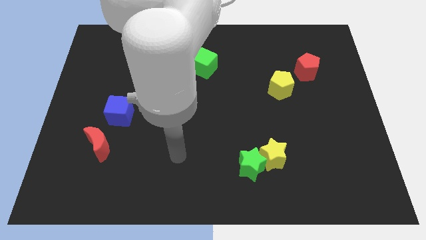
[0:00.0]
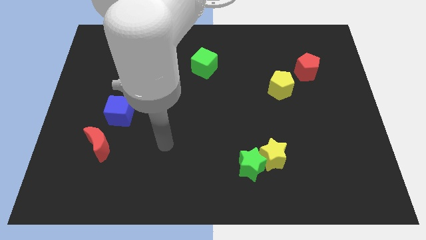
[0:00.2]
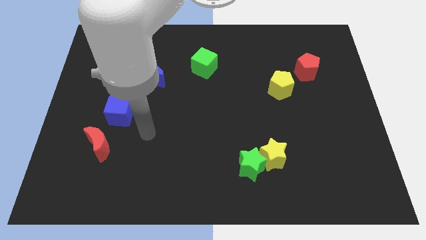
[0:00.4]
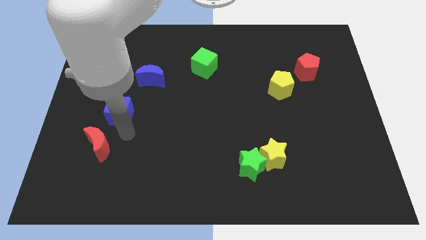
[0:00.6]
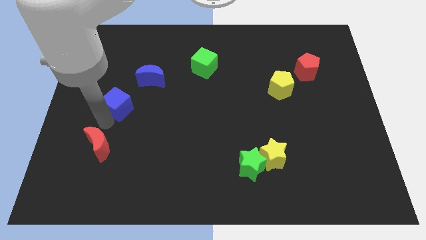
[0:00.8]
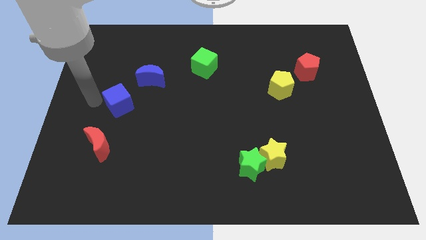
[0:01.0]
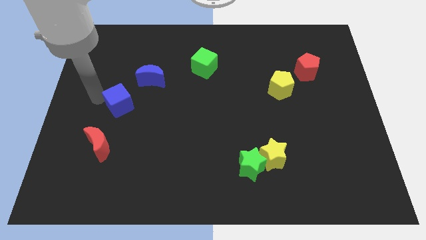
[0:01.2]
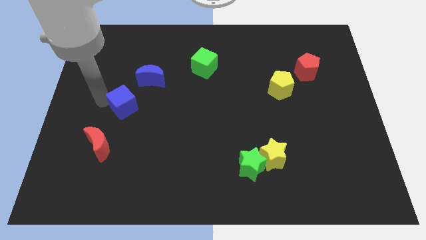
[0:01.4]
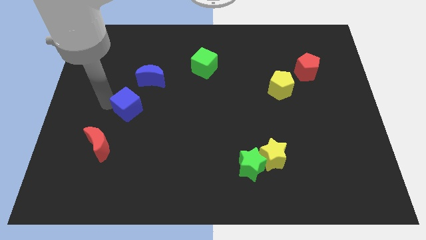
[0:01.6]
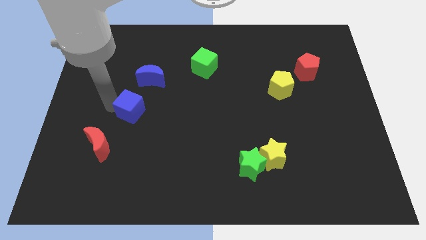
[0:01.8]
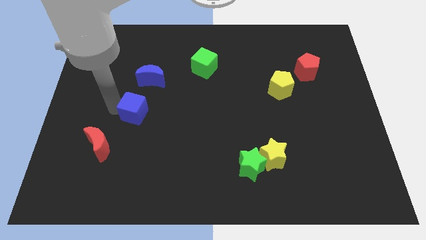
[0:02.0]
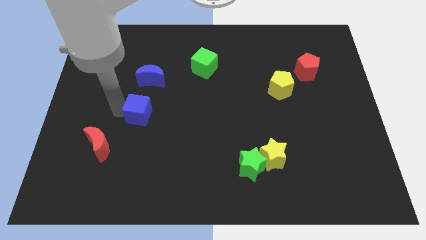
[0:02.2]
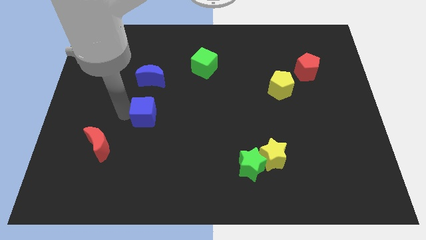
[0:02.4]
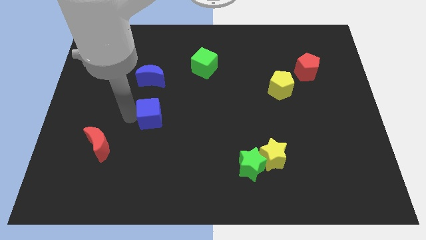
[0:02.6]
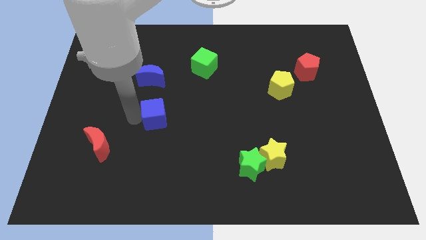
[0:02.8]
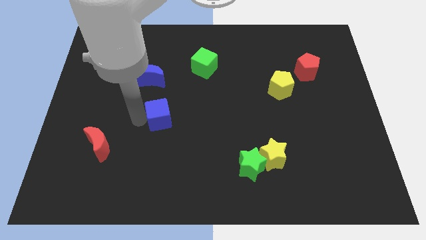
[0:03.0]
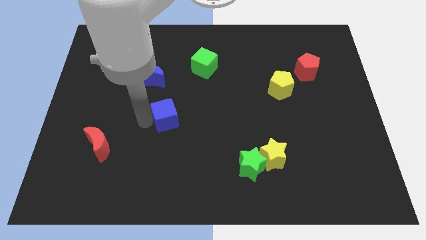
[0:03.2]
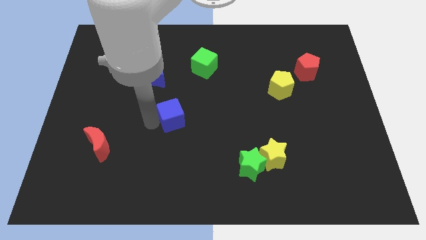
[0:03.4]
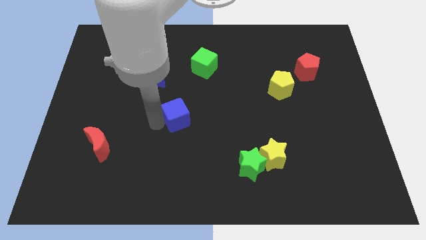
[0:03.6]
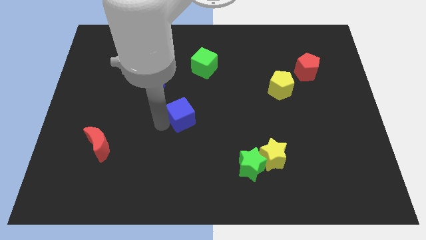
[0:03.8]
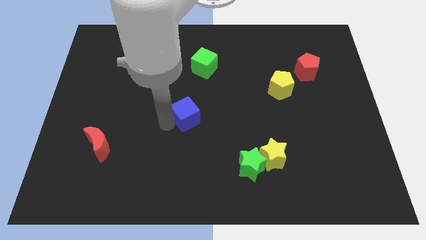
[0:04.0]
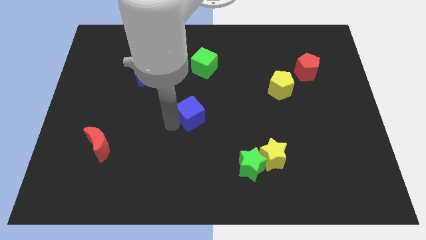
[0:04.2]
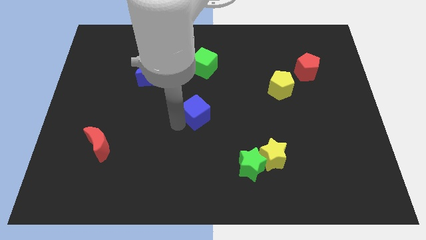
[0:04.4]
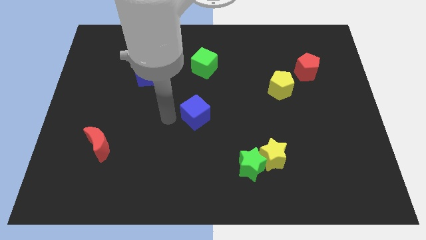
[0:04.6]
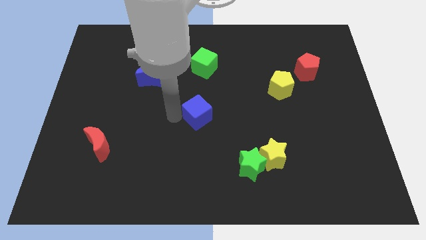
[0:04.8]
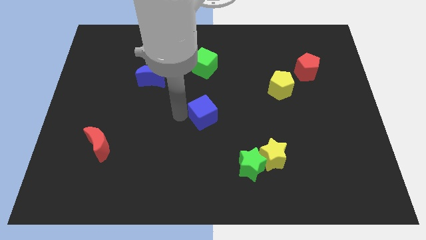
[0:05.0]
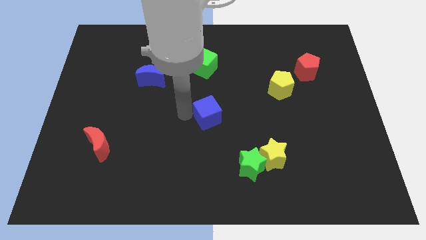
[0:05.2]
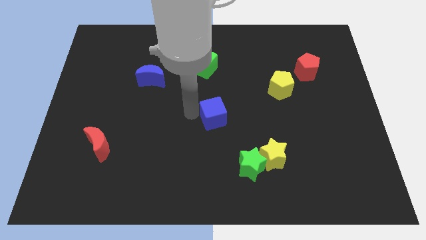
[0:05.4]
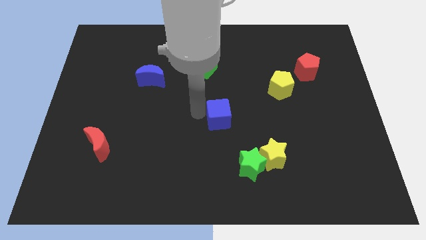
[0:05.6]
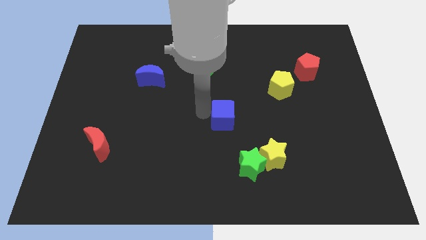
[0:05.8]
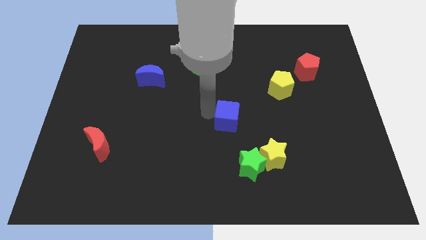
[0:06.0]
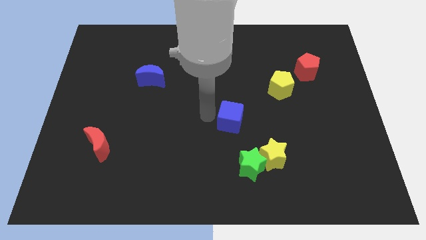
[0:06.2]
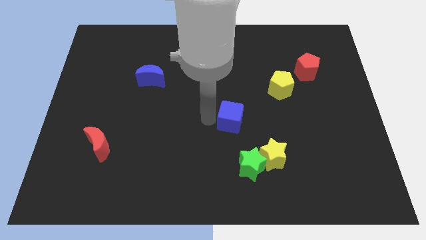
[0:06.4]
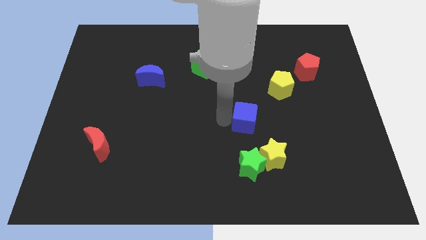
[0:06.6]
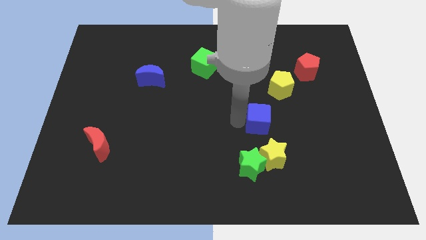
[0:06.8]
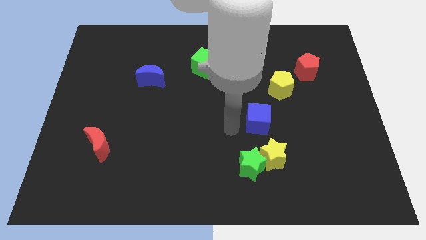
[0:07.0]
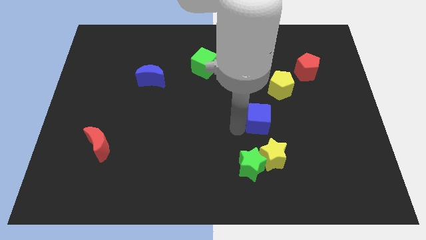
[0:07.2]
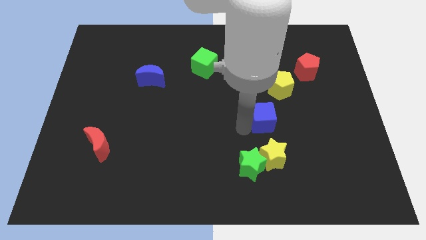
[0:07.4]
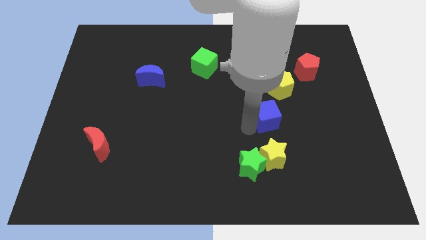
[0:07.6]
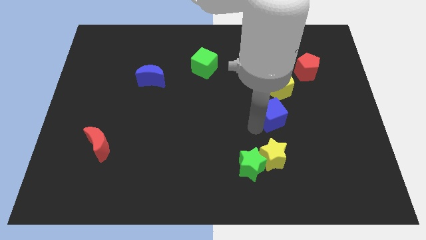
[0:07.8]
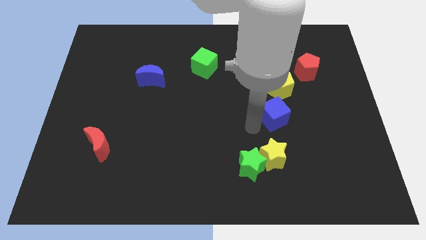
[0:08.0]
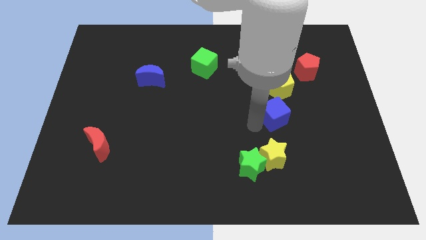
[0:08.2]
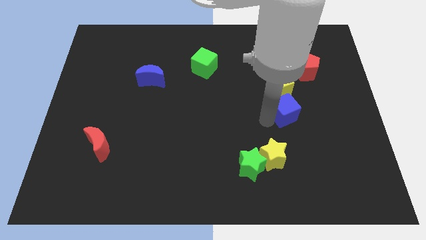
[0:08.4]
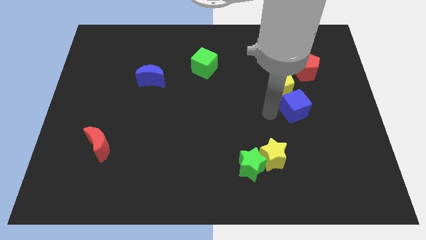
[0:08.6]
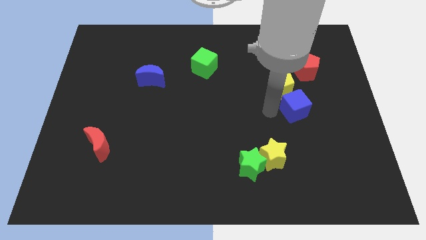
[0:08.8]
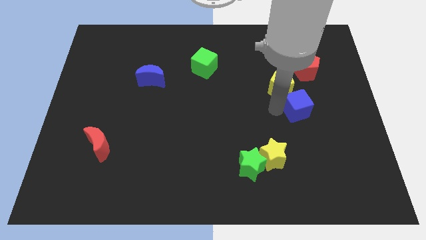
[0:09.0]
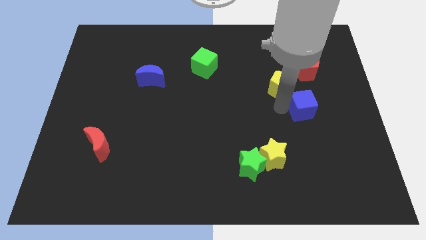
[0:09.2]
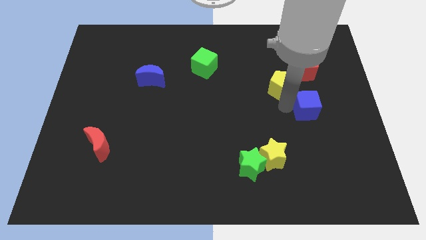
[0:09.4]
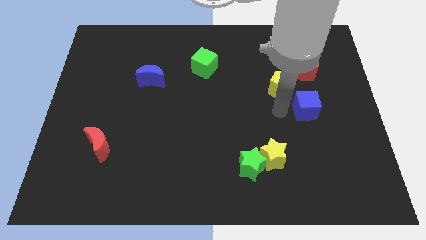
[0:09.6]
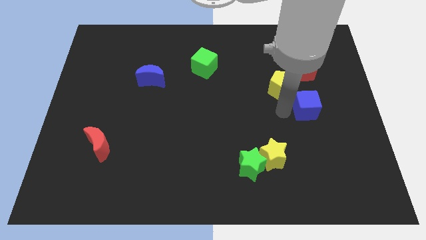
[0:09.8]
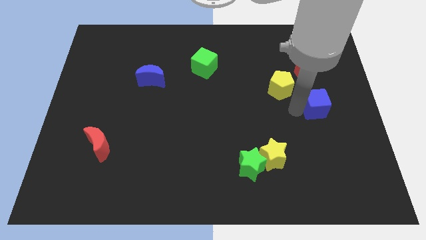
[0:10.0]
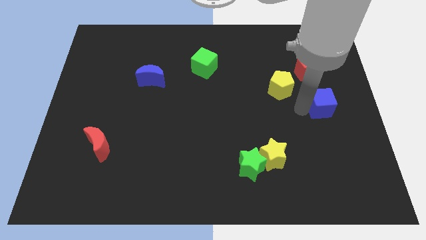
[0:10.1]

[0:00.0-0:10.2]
push the blue cube to the center right

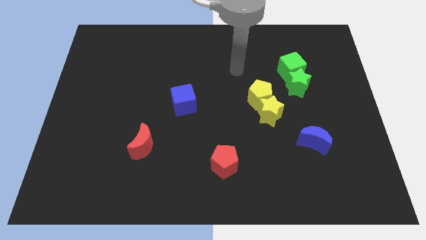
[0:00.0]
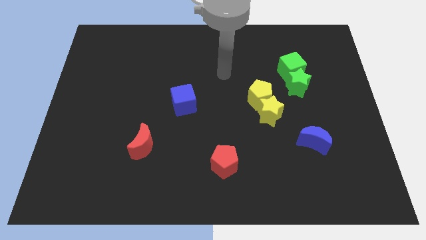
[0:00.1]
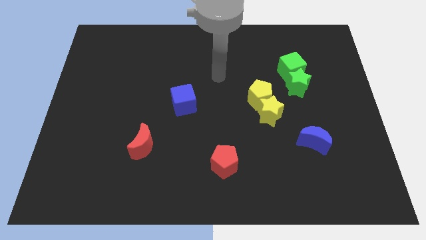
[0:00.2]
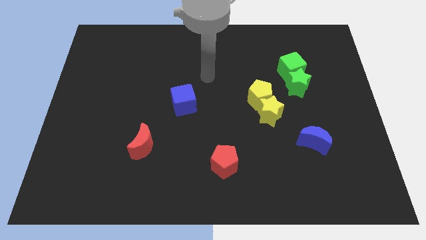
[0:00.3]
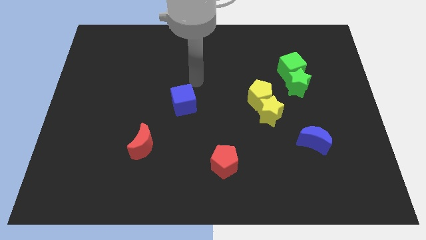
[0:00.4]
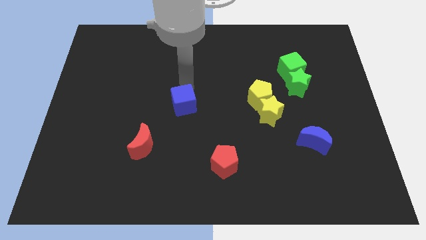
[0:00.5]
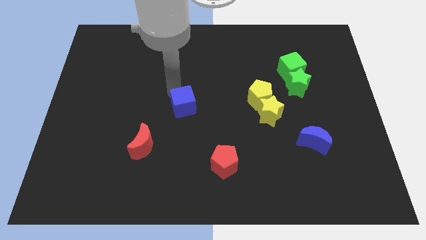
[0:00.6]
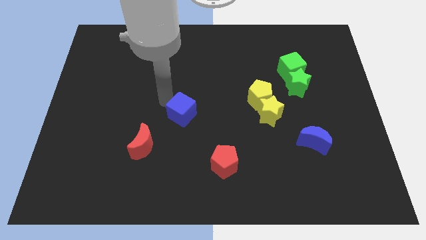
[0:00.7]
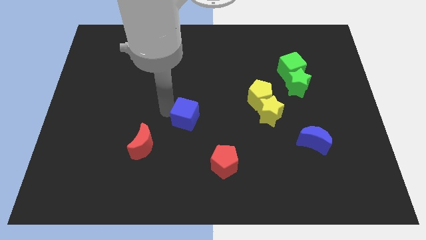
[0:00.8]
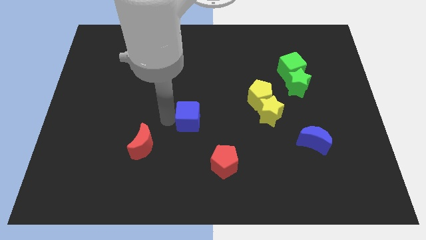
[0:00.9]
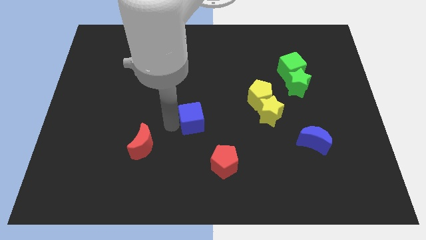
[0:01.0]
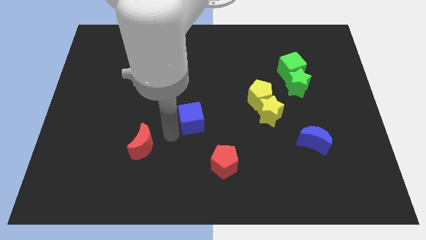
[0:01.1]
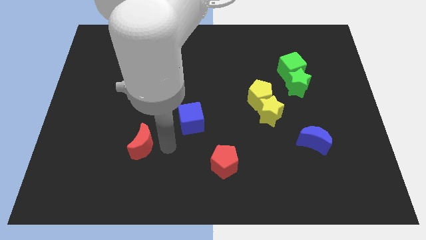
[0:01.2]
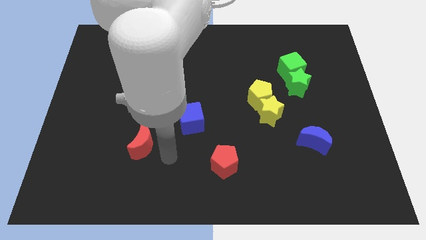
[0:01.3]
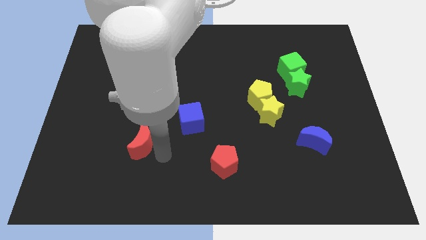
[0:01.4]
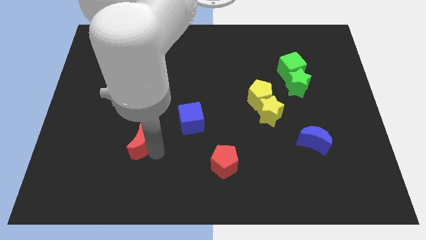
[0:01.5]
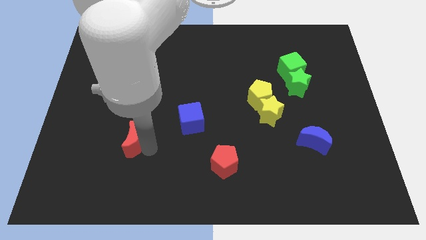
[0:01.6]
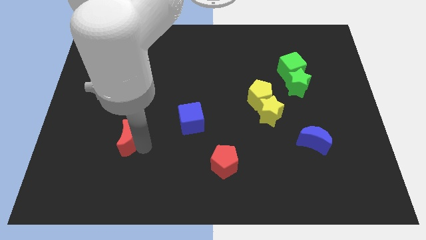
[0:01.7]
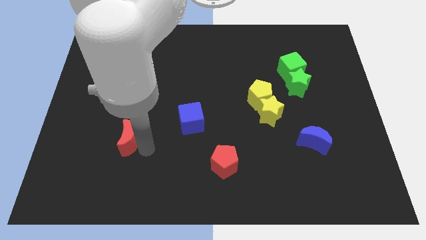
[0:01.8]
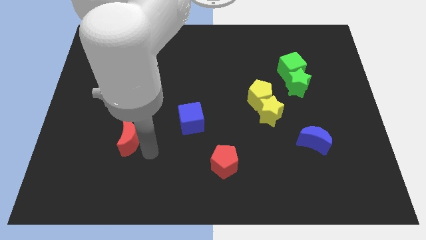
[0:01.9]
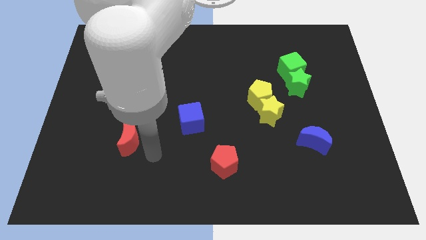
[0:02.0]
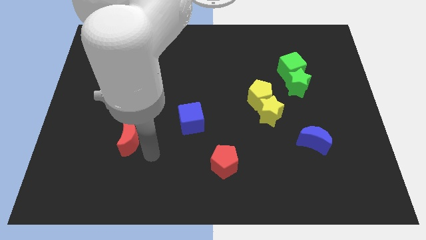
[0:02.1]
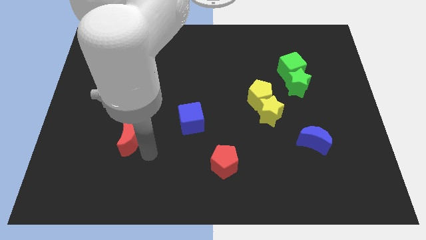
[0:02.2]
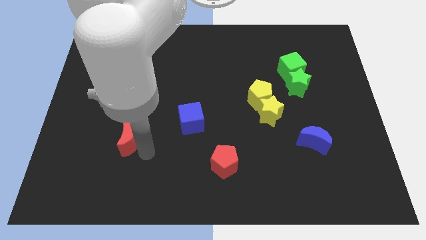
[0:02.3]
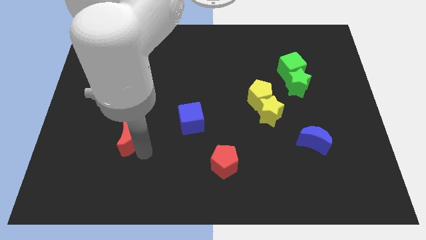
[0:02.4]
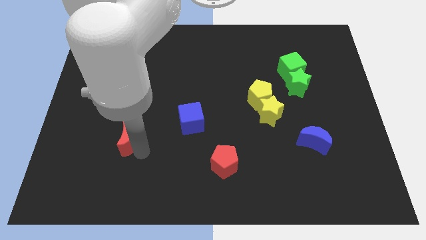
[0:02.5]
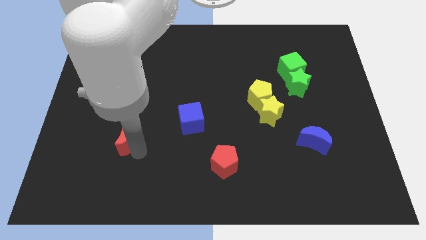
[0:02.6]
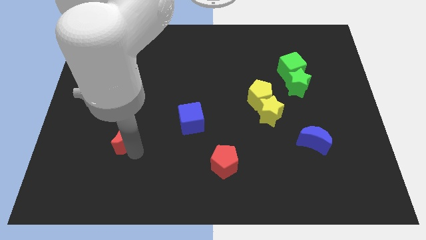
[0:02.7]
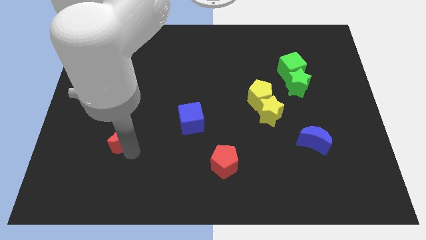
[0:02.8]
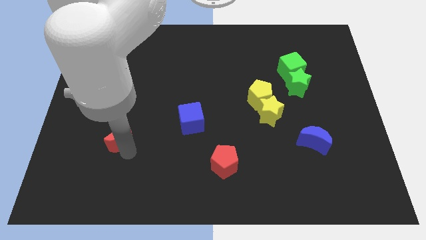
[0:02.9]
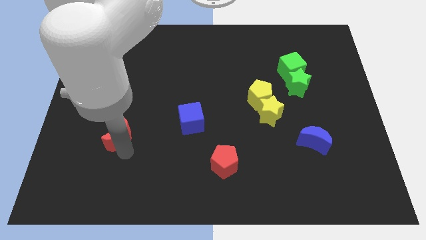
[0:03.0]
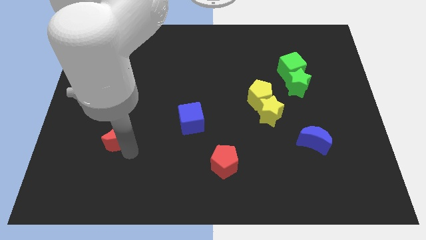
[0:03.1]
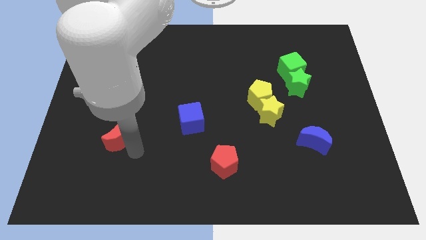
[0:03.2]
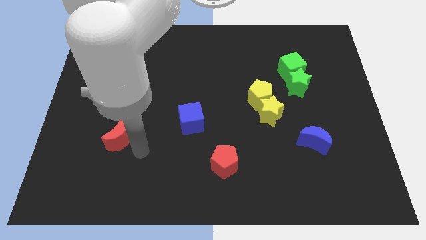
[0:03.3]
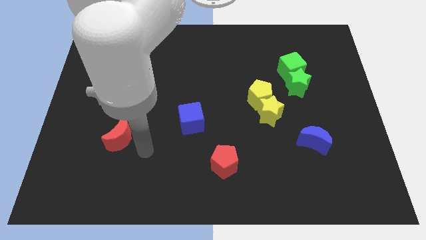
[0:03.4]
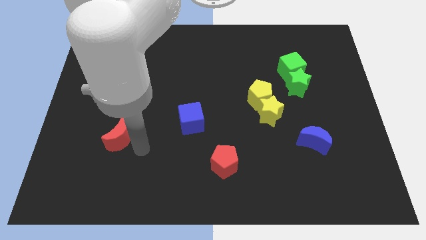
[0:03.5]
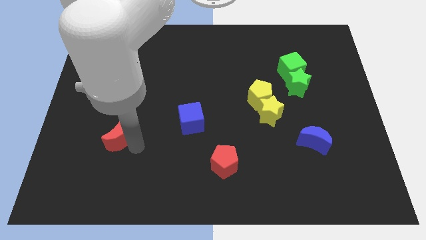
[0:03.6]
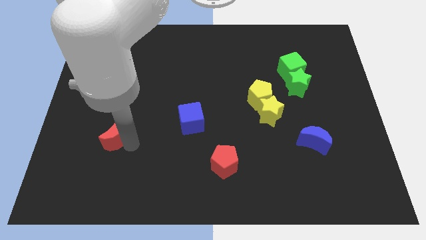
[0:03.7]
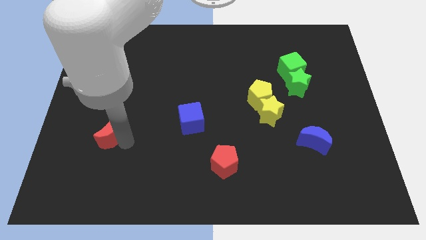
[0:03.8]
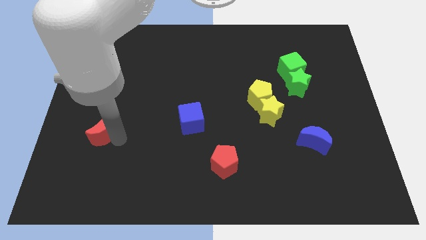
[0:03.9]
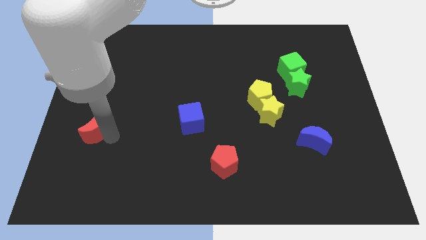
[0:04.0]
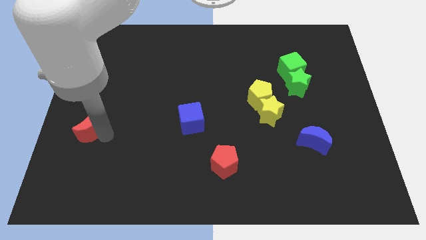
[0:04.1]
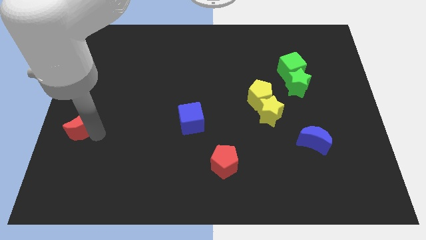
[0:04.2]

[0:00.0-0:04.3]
move the red moon to the left side of the board
